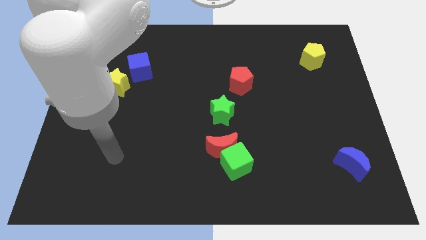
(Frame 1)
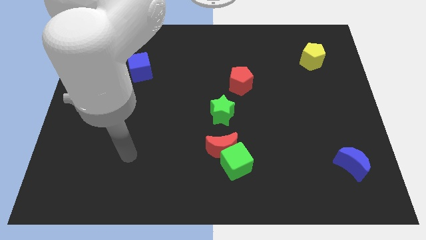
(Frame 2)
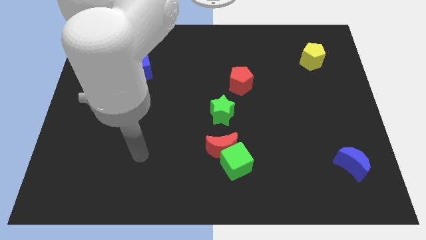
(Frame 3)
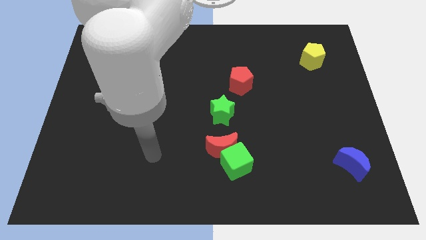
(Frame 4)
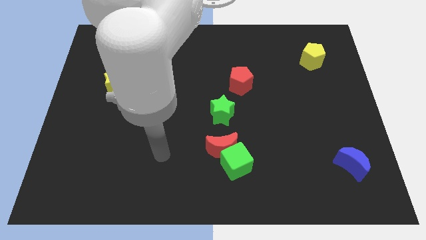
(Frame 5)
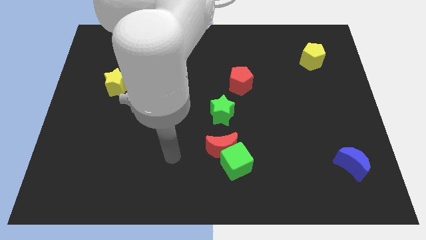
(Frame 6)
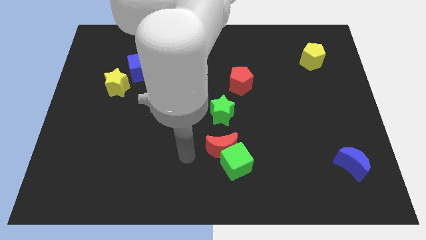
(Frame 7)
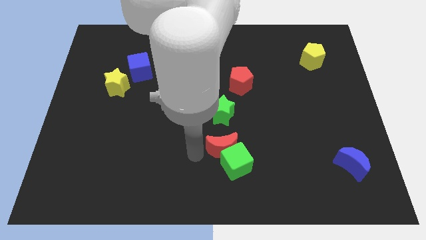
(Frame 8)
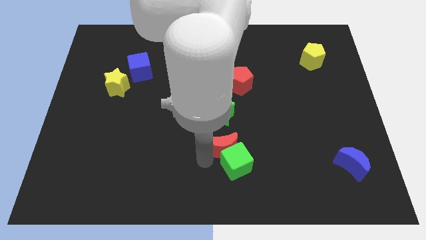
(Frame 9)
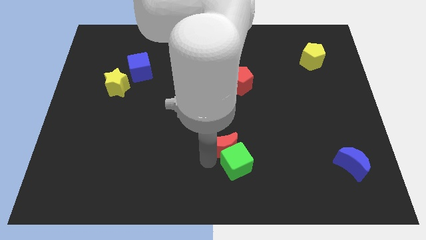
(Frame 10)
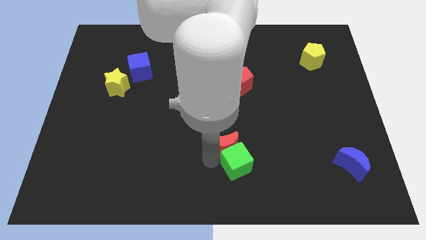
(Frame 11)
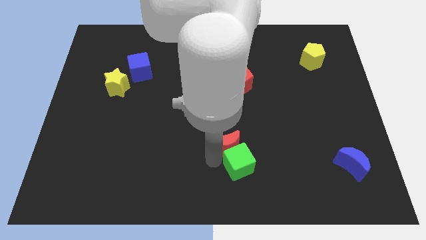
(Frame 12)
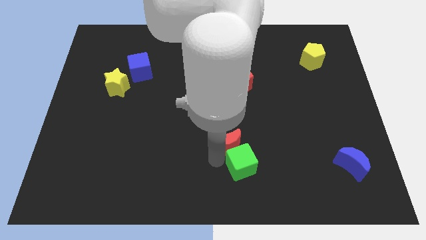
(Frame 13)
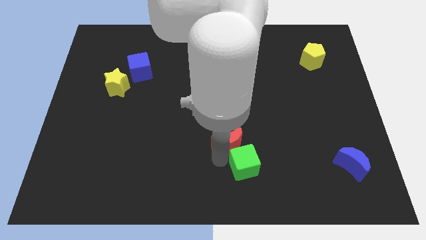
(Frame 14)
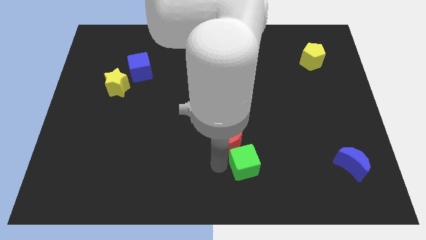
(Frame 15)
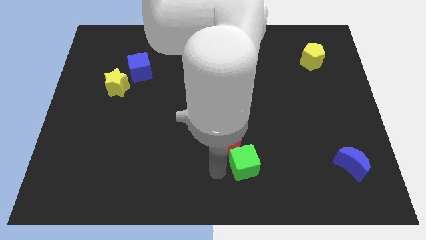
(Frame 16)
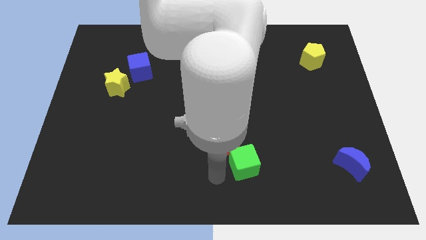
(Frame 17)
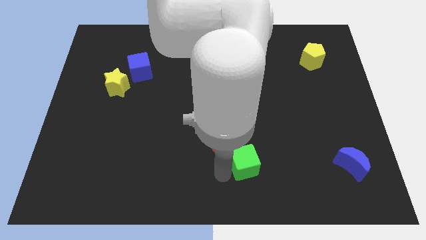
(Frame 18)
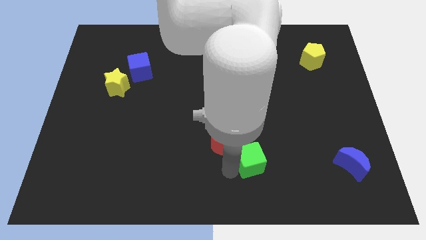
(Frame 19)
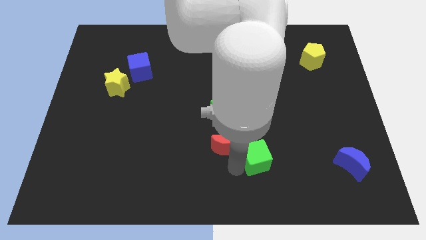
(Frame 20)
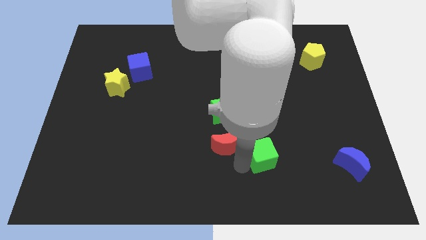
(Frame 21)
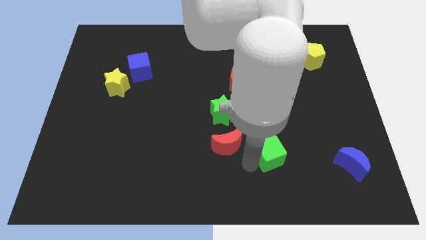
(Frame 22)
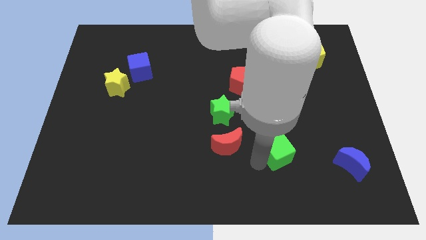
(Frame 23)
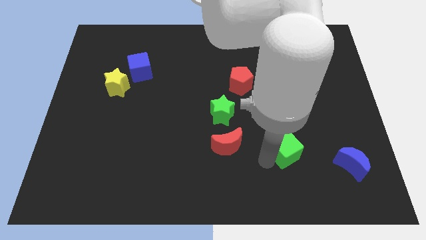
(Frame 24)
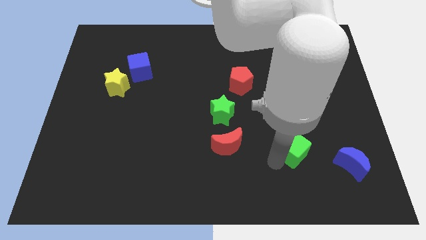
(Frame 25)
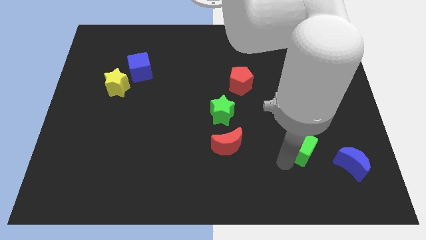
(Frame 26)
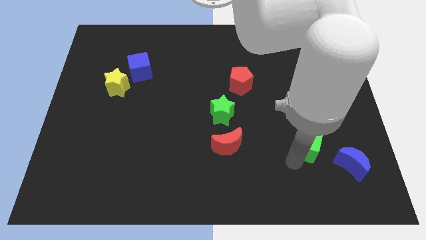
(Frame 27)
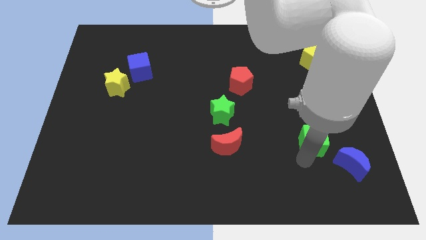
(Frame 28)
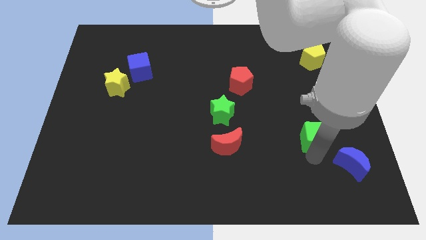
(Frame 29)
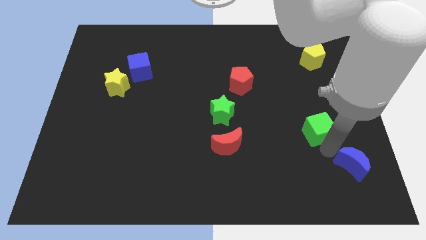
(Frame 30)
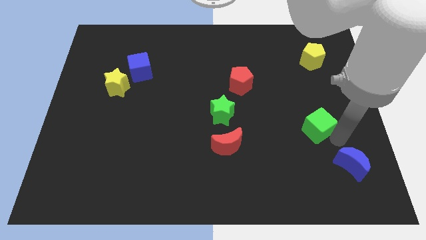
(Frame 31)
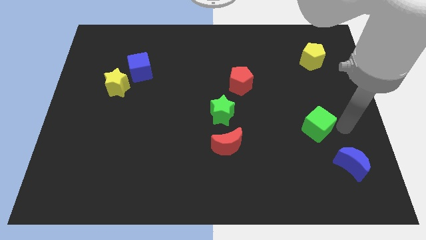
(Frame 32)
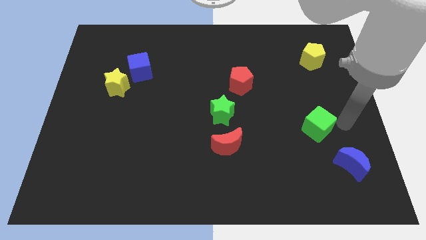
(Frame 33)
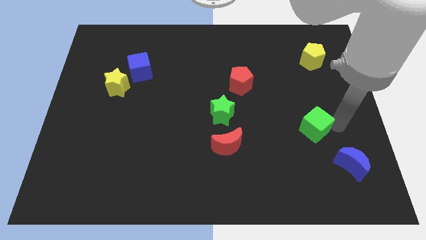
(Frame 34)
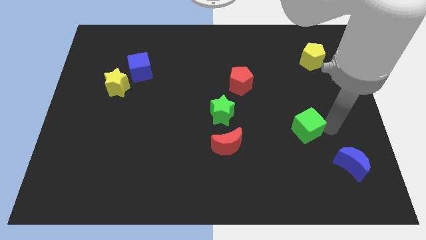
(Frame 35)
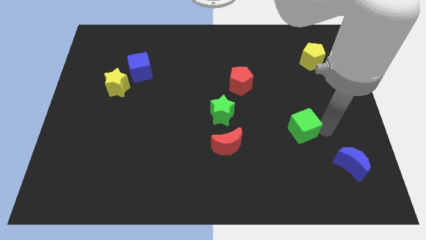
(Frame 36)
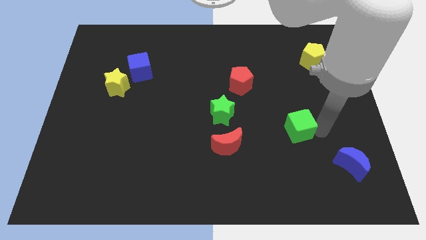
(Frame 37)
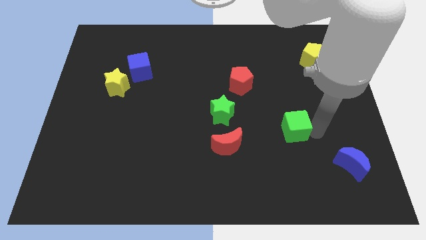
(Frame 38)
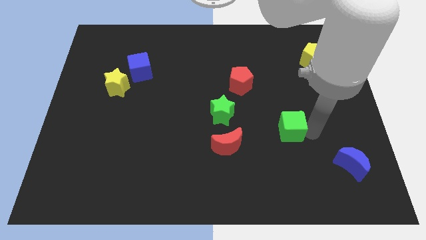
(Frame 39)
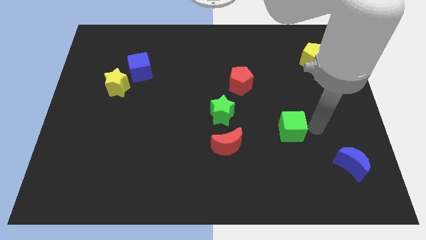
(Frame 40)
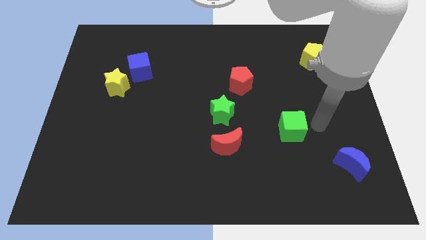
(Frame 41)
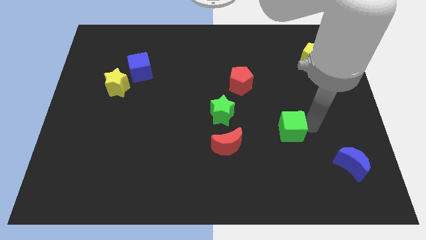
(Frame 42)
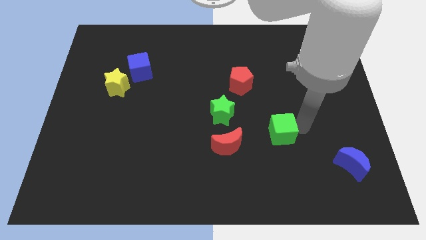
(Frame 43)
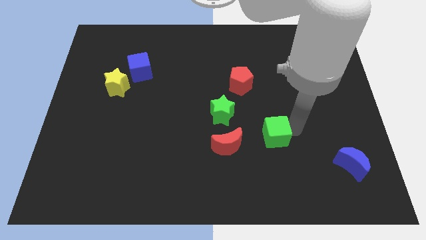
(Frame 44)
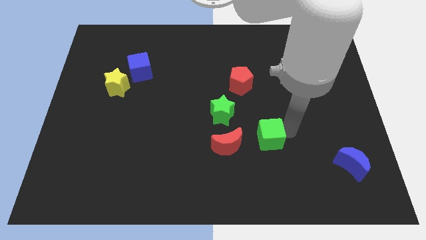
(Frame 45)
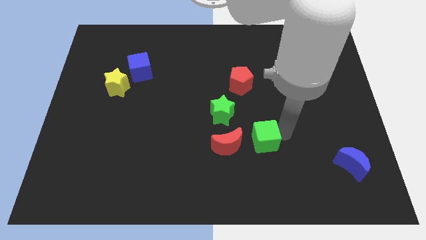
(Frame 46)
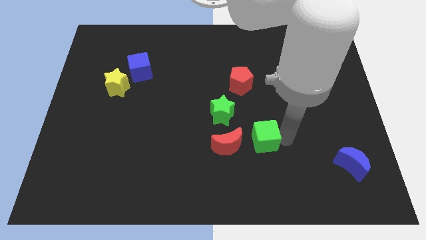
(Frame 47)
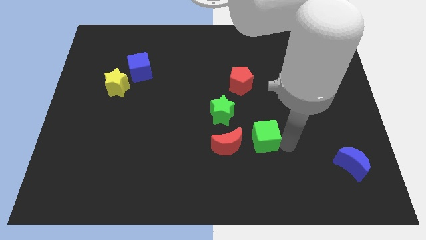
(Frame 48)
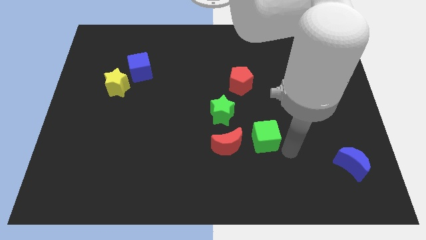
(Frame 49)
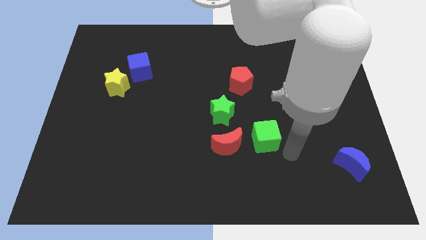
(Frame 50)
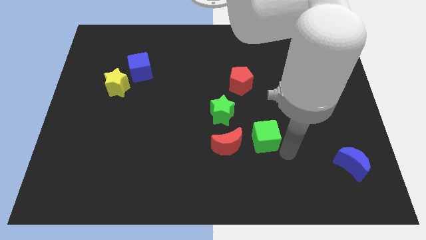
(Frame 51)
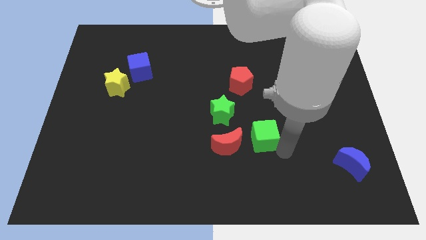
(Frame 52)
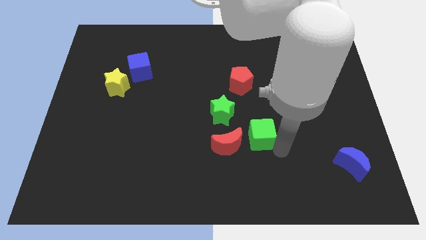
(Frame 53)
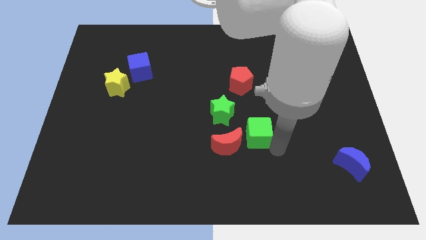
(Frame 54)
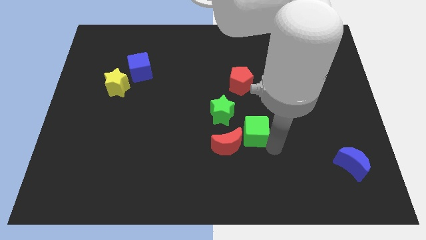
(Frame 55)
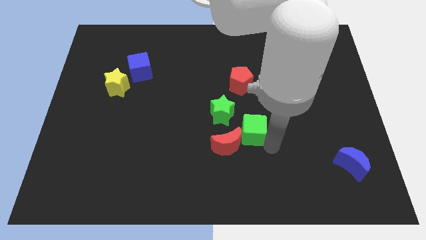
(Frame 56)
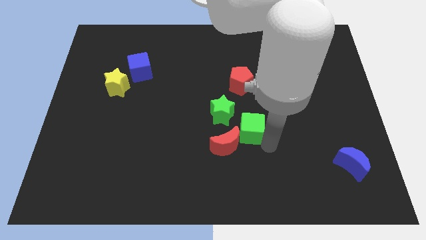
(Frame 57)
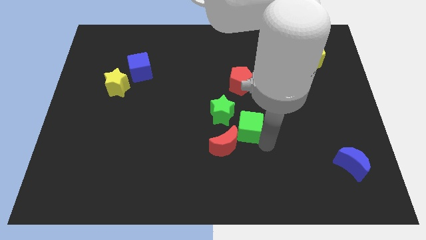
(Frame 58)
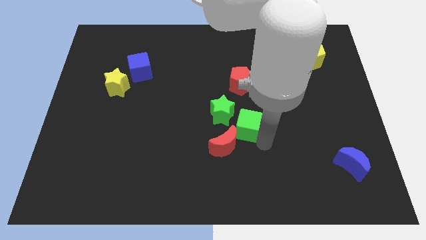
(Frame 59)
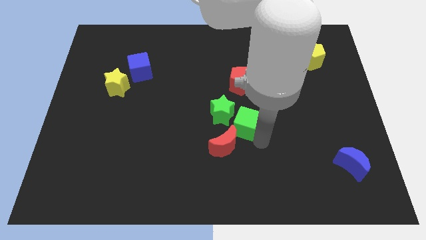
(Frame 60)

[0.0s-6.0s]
move the green cube next to the green star

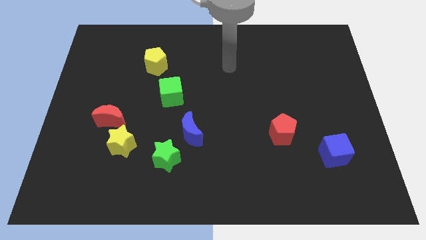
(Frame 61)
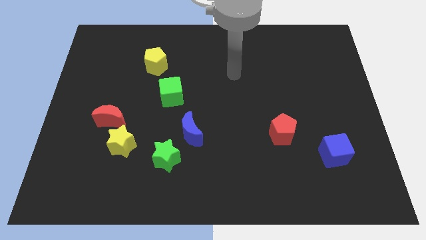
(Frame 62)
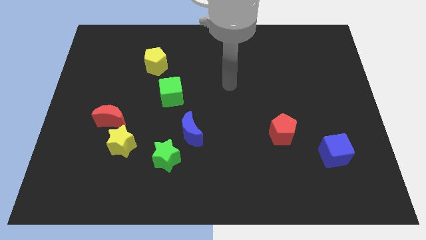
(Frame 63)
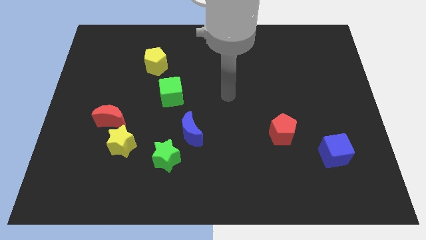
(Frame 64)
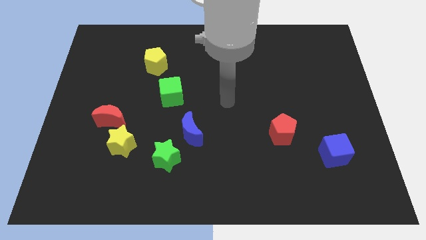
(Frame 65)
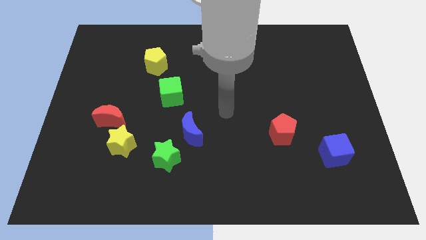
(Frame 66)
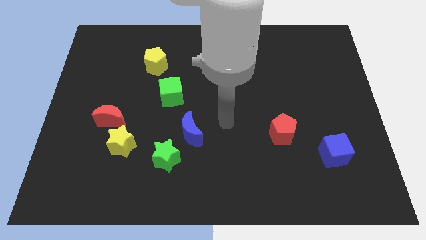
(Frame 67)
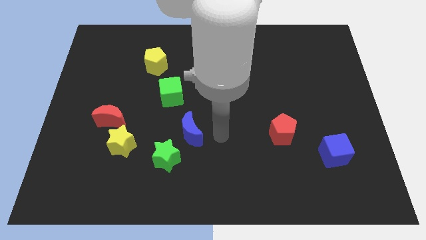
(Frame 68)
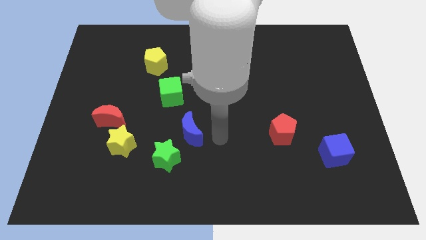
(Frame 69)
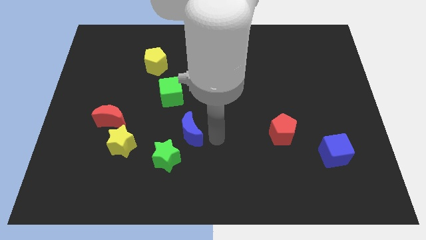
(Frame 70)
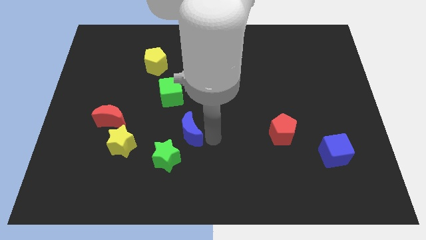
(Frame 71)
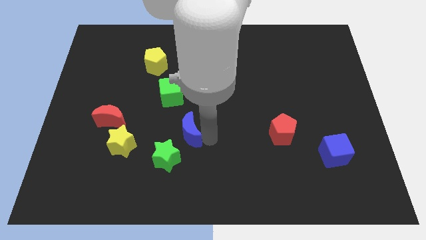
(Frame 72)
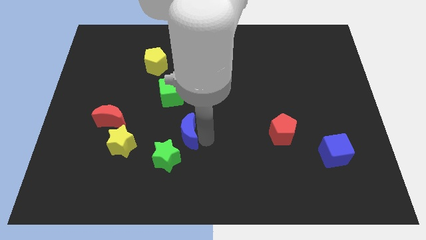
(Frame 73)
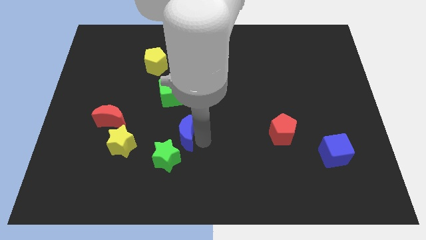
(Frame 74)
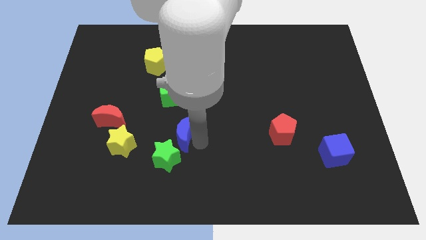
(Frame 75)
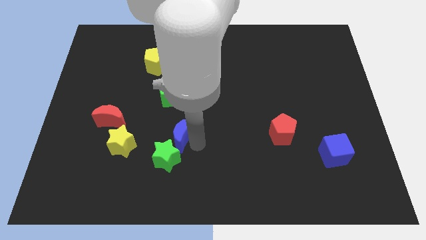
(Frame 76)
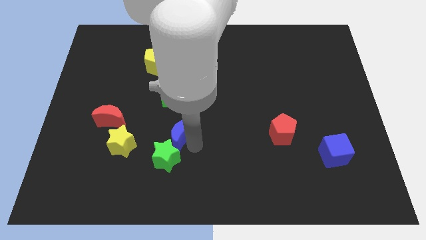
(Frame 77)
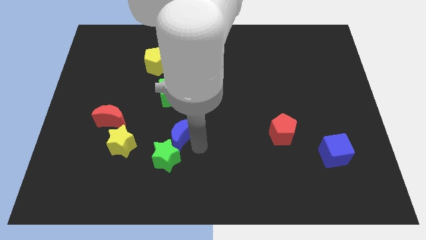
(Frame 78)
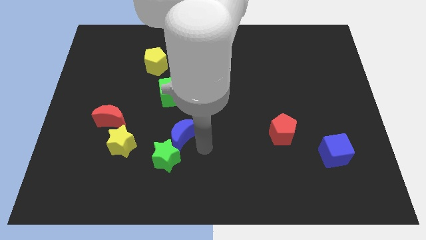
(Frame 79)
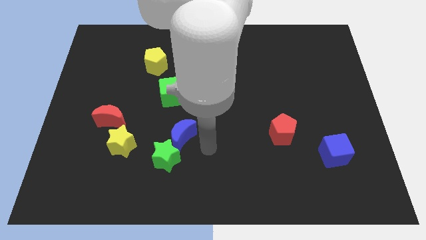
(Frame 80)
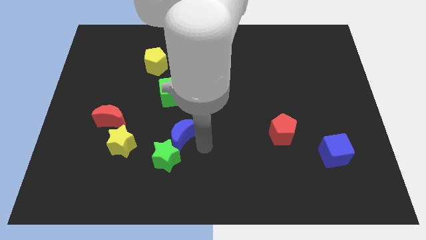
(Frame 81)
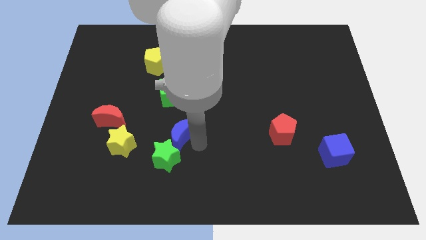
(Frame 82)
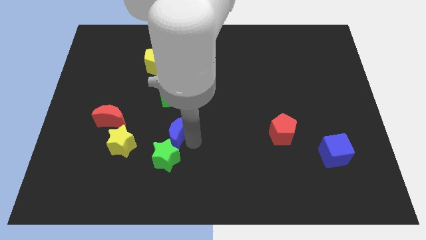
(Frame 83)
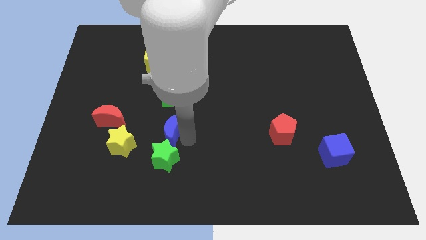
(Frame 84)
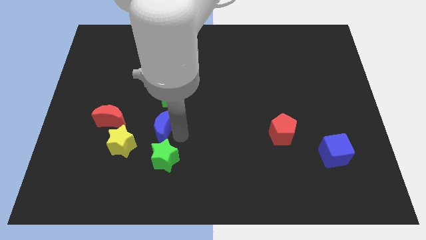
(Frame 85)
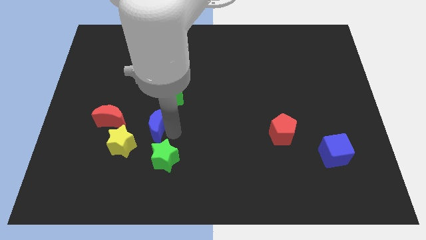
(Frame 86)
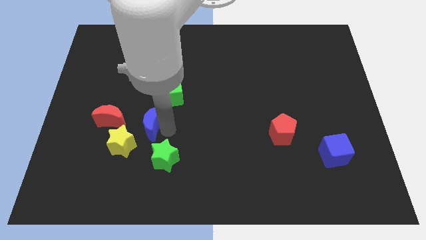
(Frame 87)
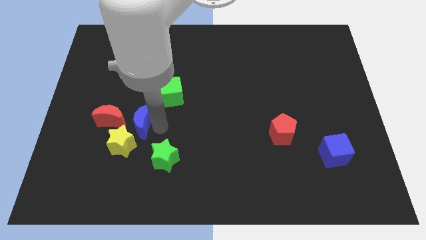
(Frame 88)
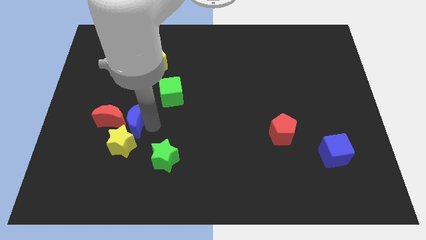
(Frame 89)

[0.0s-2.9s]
put the blue moon close to the red moon
